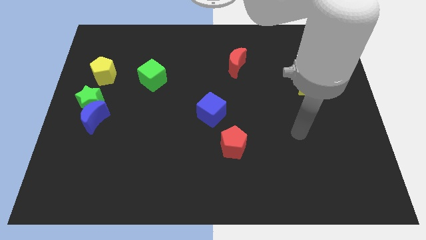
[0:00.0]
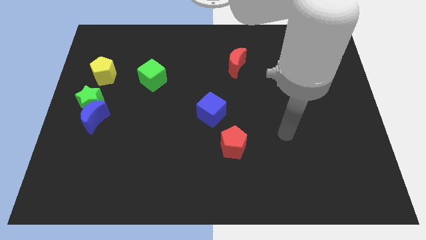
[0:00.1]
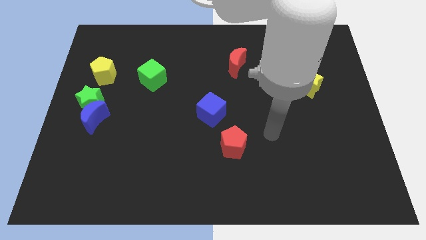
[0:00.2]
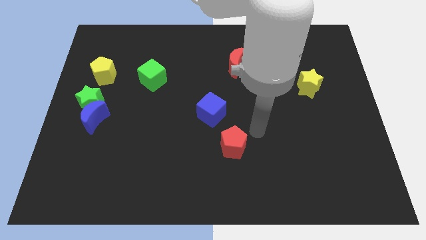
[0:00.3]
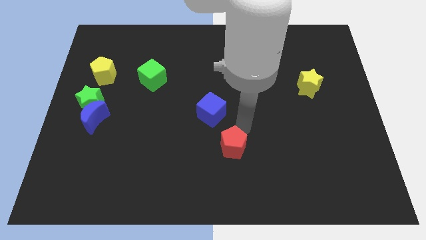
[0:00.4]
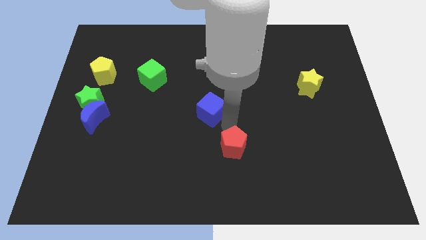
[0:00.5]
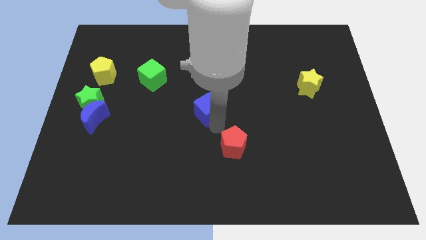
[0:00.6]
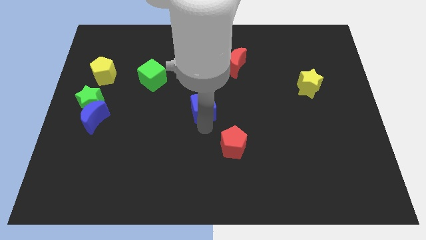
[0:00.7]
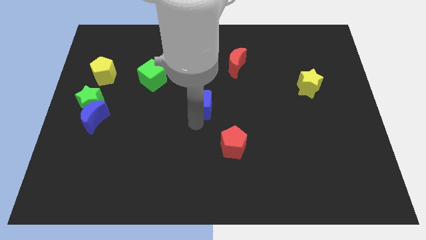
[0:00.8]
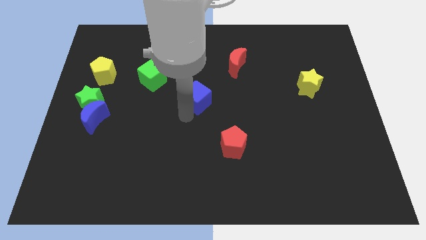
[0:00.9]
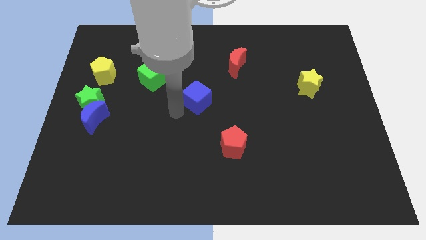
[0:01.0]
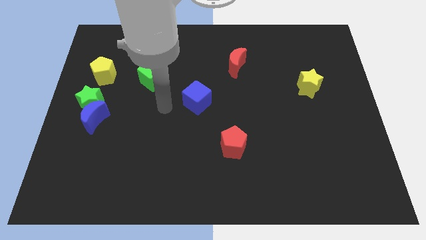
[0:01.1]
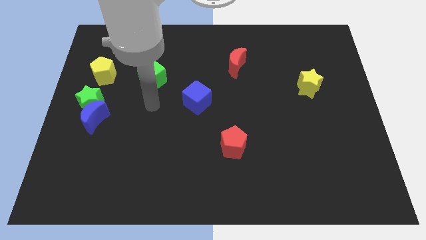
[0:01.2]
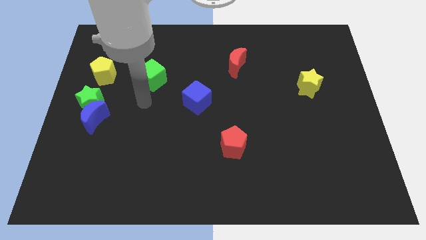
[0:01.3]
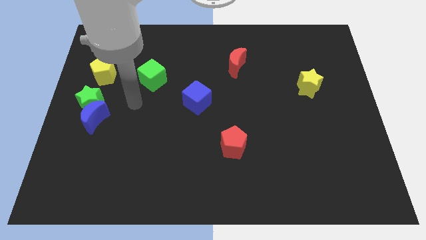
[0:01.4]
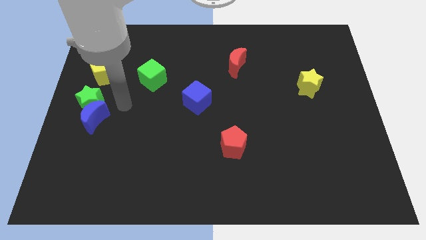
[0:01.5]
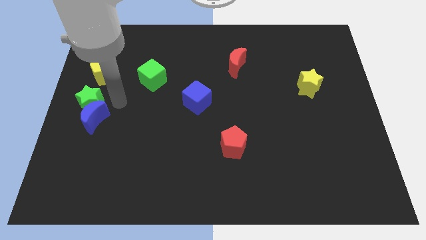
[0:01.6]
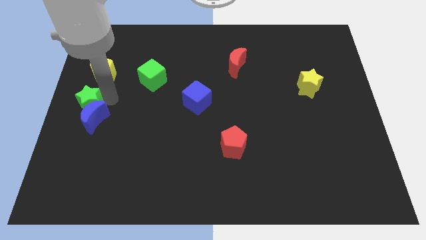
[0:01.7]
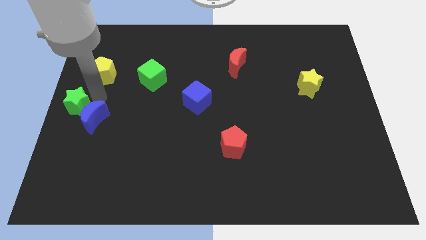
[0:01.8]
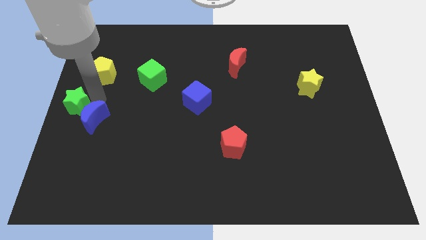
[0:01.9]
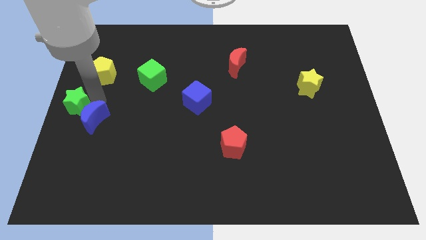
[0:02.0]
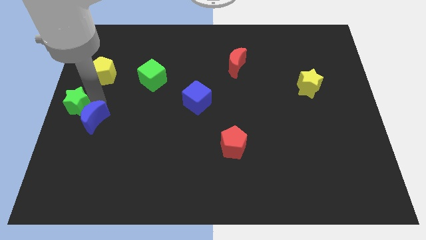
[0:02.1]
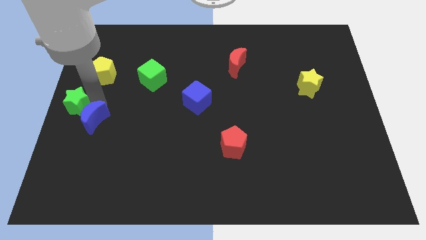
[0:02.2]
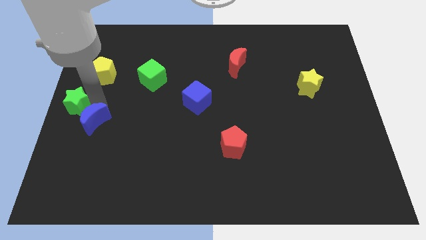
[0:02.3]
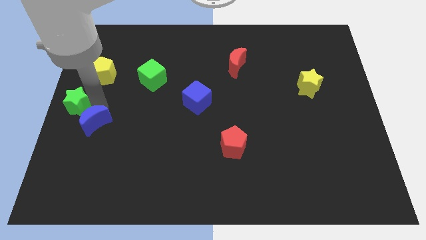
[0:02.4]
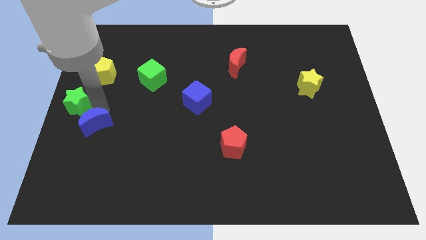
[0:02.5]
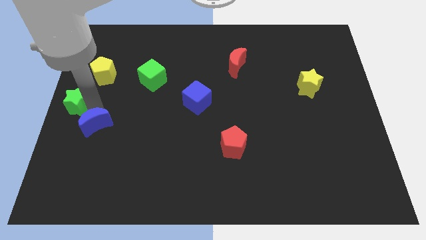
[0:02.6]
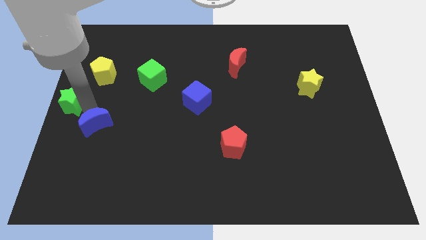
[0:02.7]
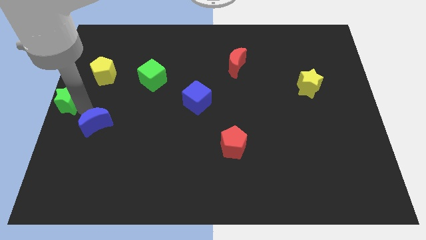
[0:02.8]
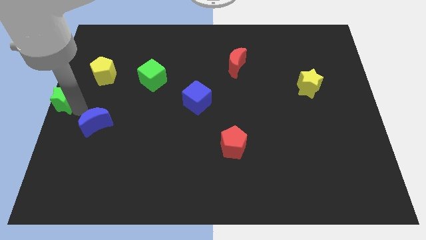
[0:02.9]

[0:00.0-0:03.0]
pull the blue moon apart from the green star

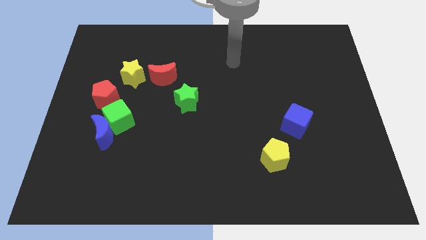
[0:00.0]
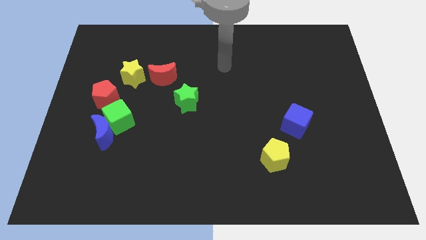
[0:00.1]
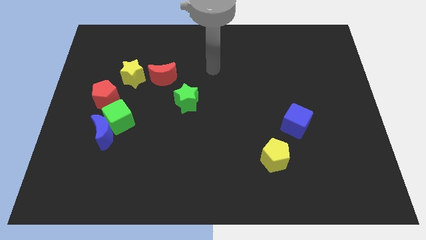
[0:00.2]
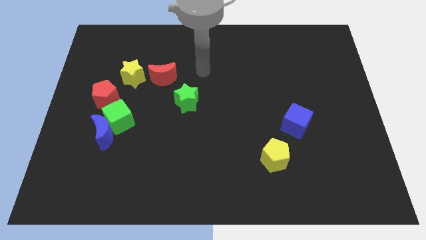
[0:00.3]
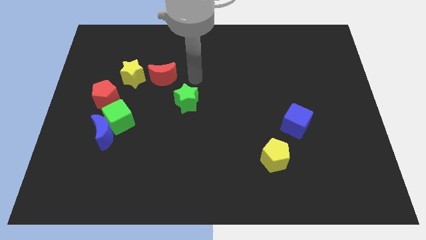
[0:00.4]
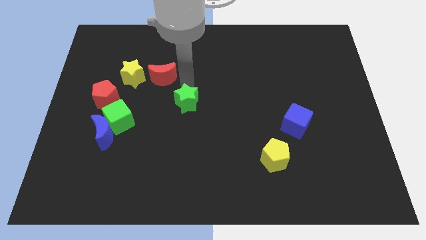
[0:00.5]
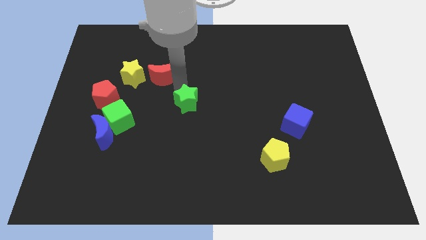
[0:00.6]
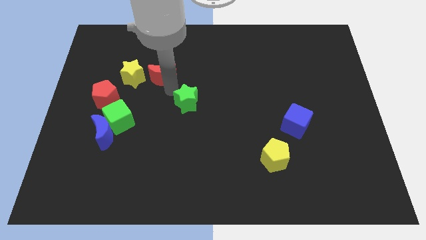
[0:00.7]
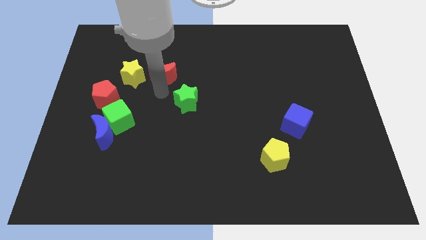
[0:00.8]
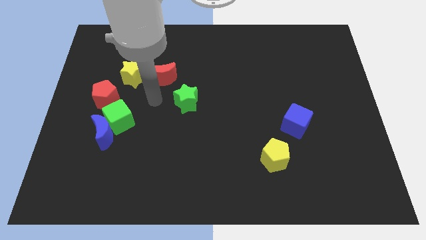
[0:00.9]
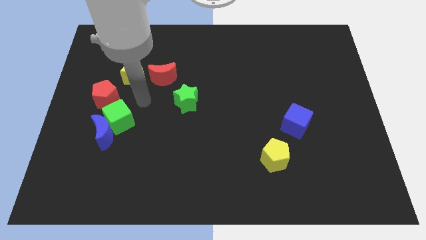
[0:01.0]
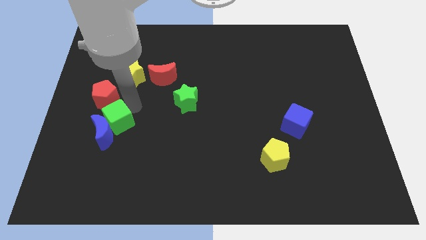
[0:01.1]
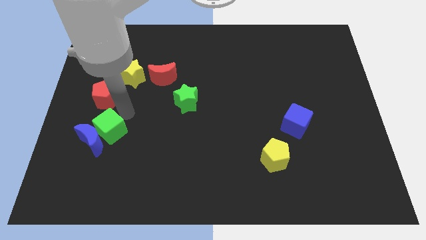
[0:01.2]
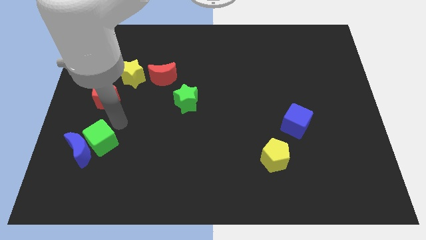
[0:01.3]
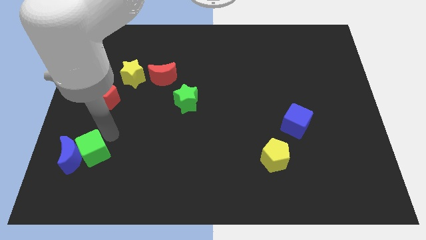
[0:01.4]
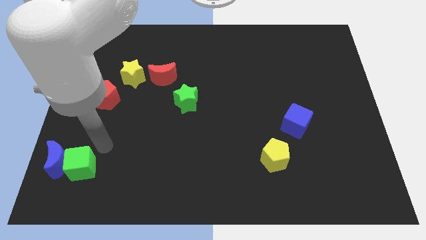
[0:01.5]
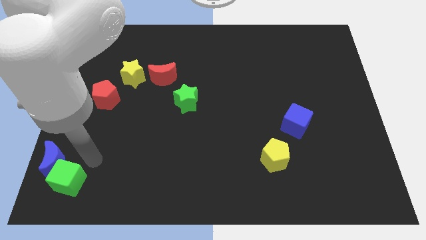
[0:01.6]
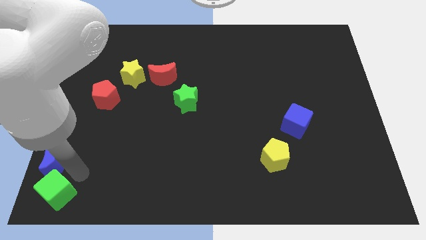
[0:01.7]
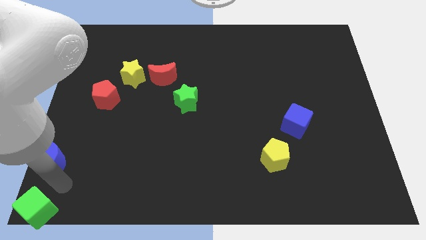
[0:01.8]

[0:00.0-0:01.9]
move the blue moon away from the green cube

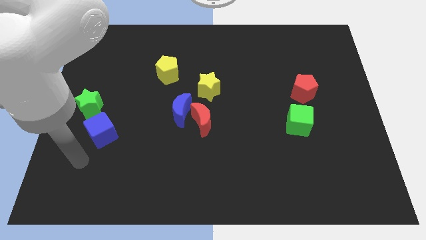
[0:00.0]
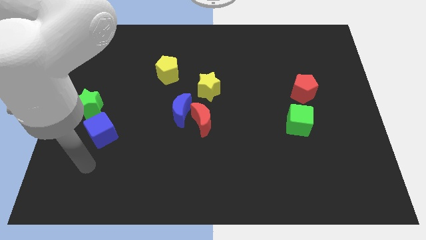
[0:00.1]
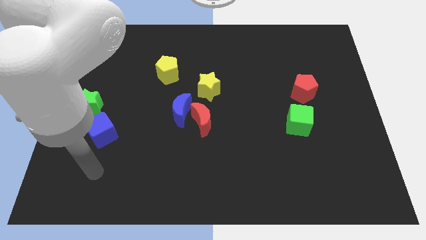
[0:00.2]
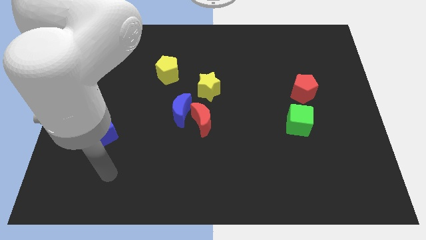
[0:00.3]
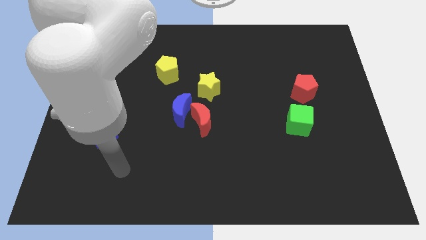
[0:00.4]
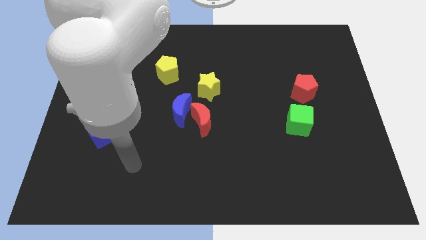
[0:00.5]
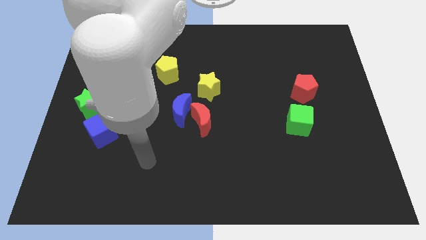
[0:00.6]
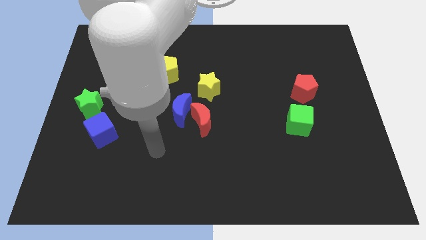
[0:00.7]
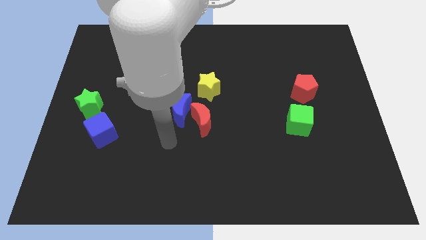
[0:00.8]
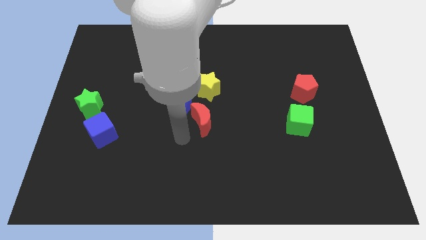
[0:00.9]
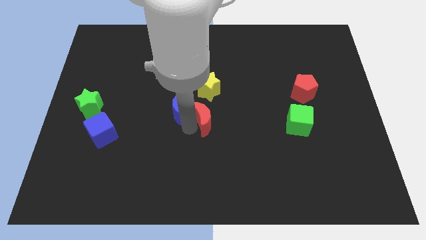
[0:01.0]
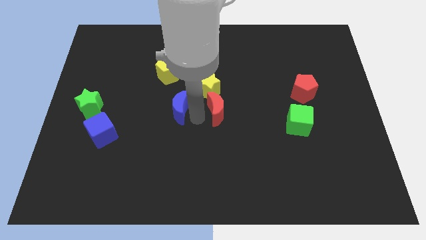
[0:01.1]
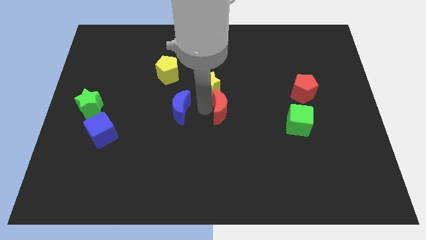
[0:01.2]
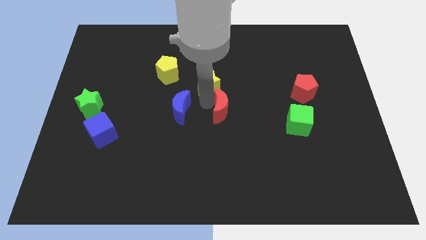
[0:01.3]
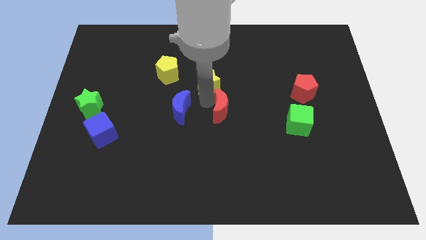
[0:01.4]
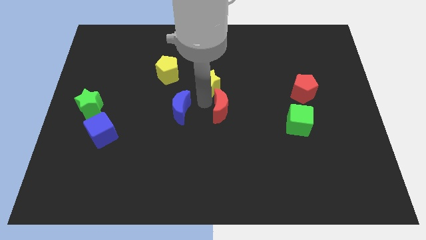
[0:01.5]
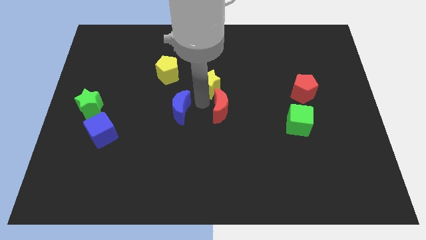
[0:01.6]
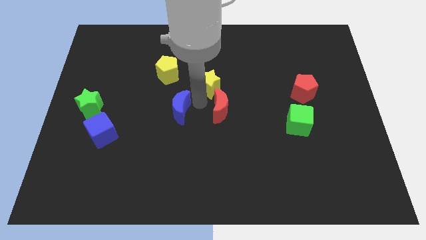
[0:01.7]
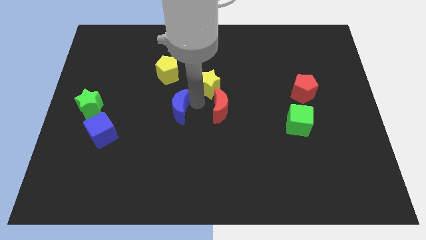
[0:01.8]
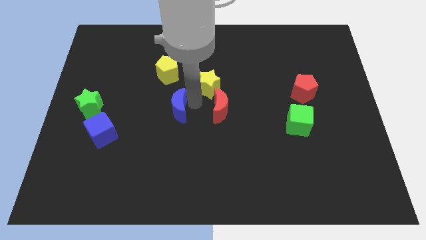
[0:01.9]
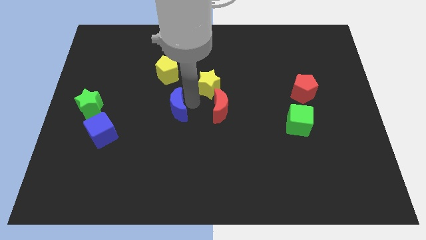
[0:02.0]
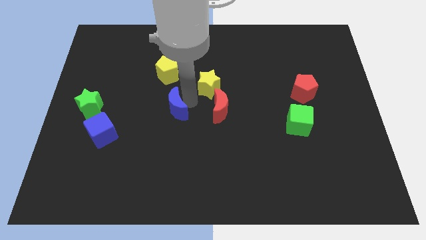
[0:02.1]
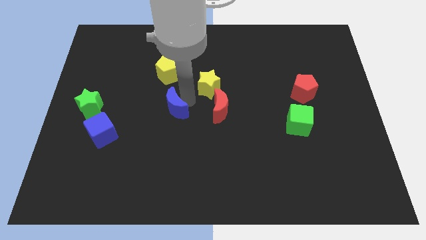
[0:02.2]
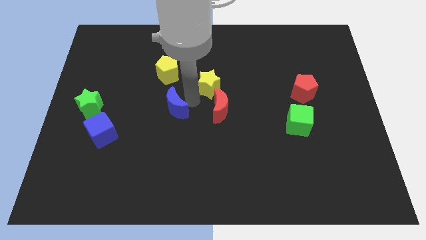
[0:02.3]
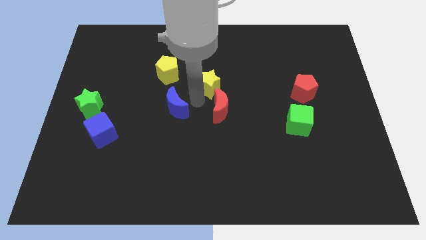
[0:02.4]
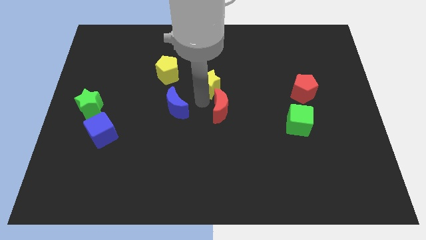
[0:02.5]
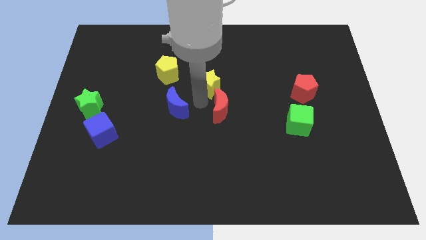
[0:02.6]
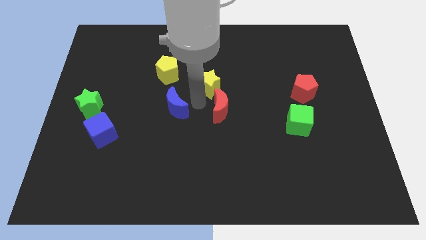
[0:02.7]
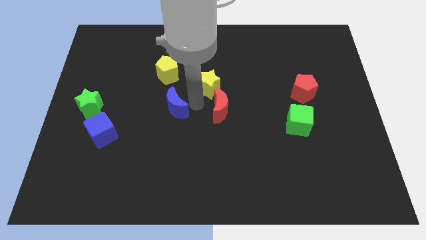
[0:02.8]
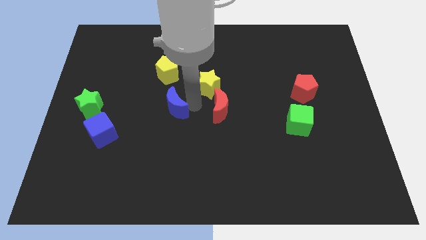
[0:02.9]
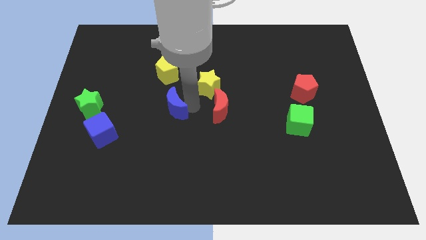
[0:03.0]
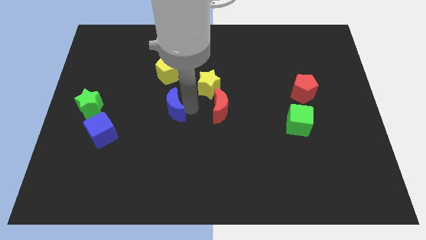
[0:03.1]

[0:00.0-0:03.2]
separate the blue moon from the red moon and yellow star

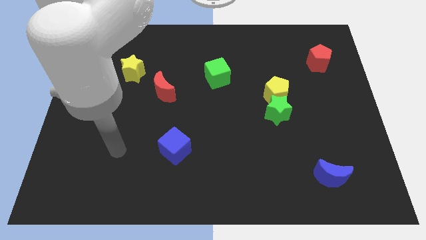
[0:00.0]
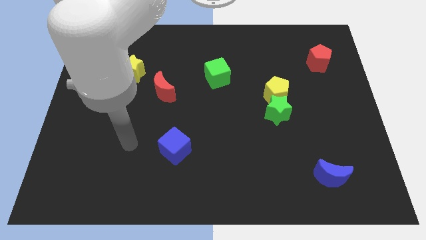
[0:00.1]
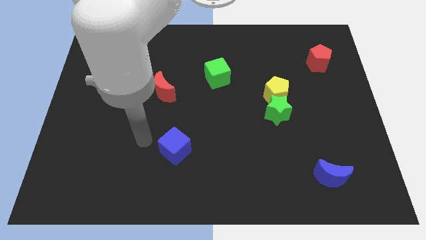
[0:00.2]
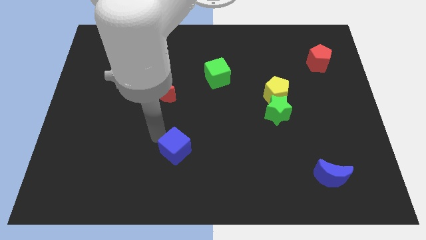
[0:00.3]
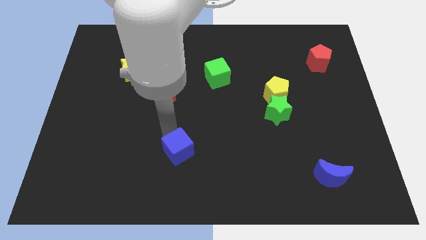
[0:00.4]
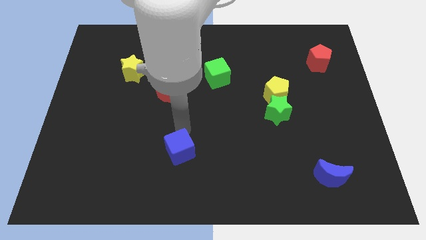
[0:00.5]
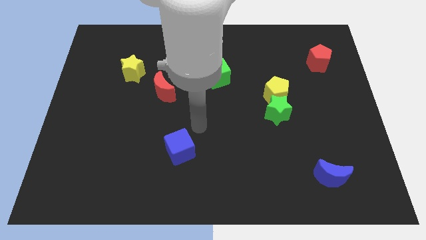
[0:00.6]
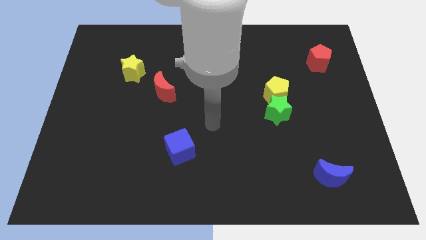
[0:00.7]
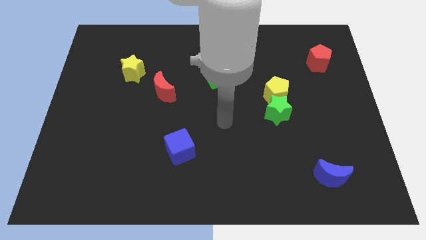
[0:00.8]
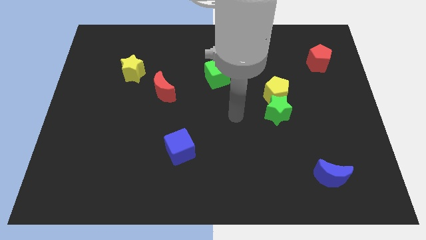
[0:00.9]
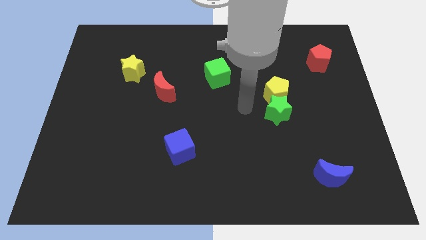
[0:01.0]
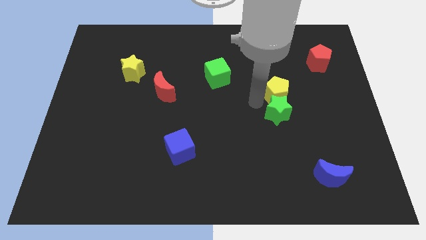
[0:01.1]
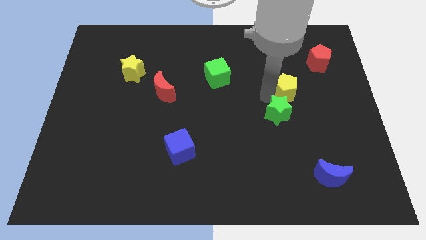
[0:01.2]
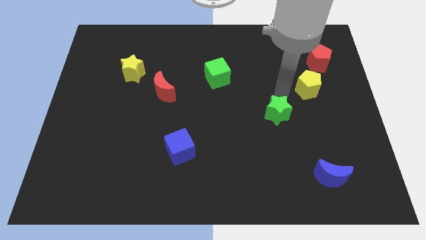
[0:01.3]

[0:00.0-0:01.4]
pull the green star apart from the yellow pentagon
